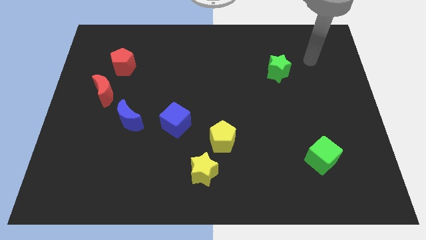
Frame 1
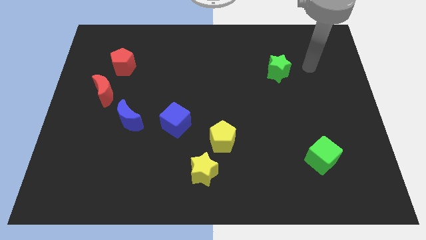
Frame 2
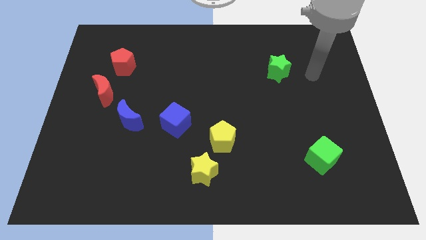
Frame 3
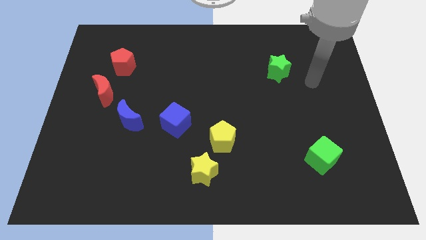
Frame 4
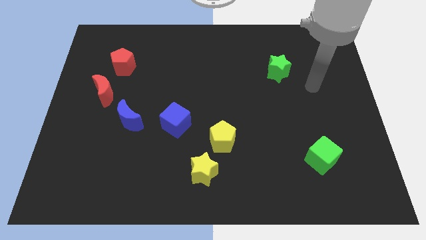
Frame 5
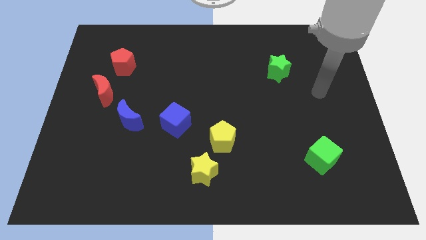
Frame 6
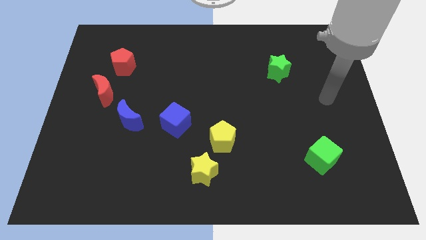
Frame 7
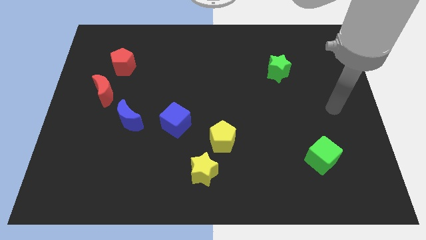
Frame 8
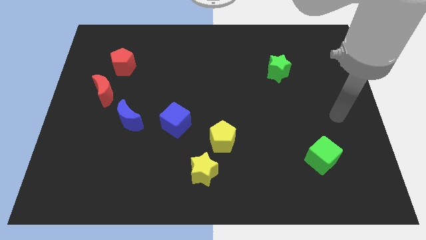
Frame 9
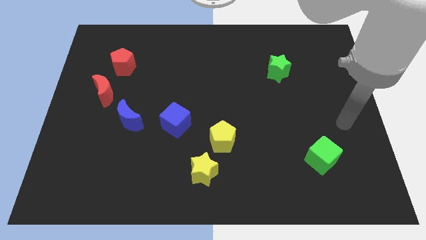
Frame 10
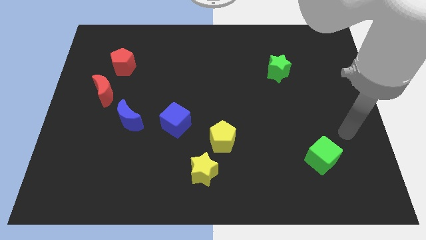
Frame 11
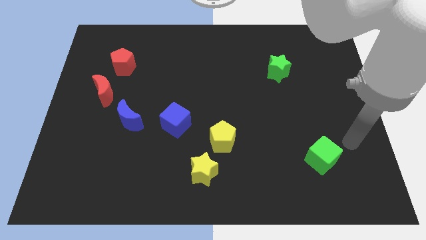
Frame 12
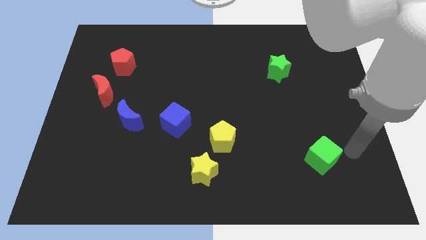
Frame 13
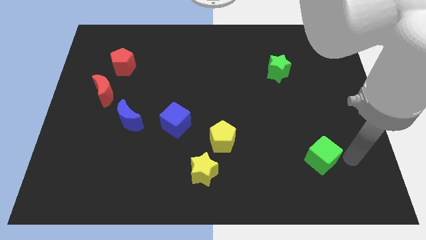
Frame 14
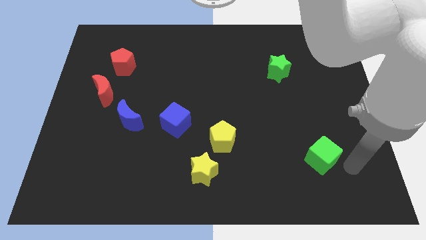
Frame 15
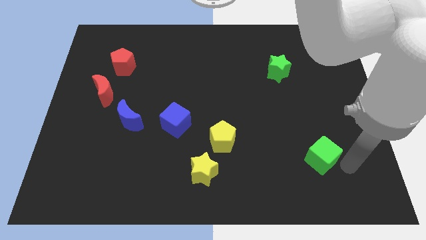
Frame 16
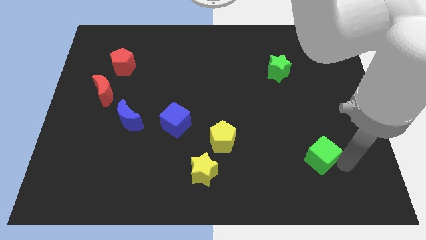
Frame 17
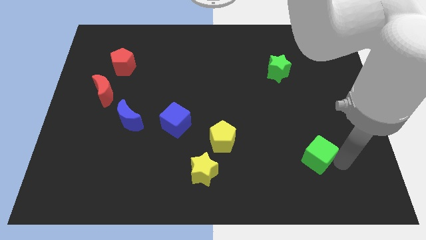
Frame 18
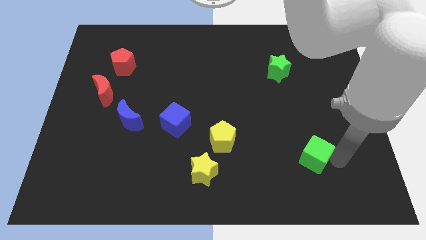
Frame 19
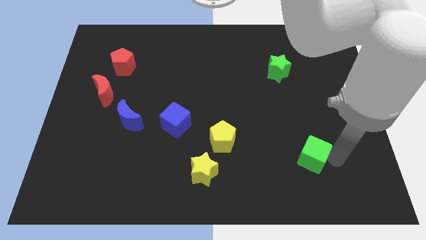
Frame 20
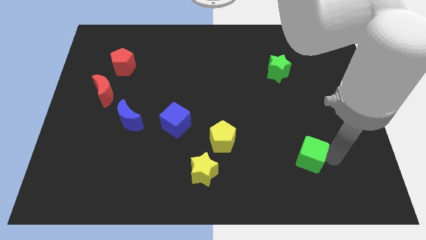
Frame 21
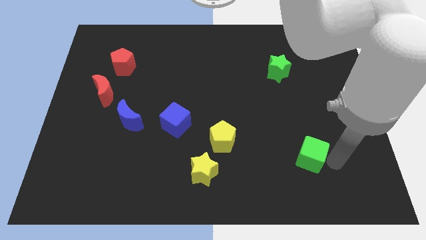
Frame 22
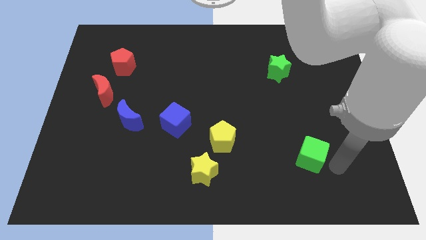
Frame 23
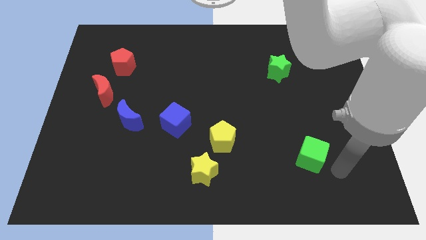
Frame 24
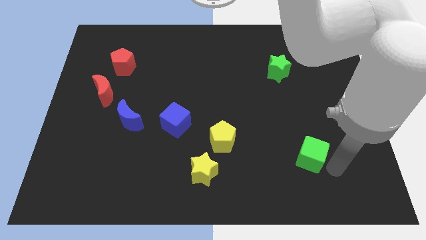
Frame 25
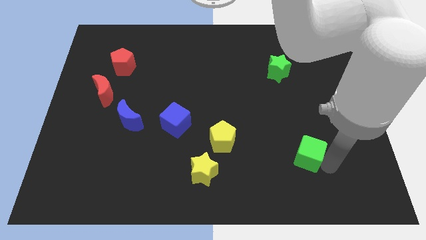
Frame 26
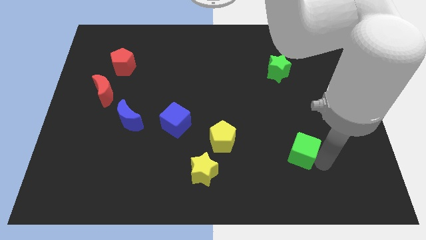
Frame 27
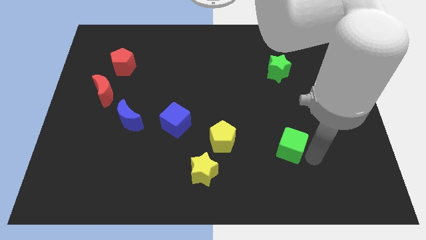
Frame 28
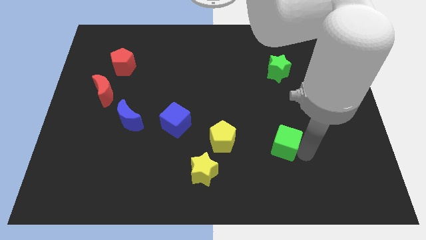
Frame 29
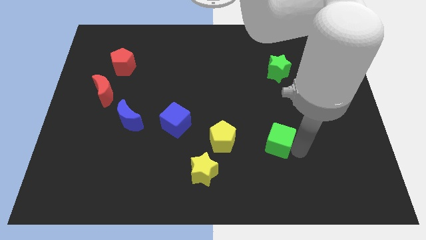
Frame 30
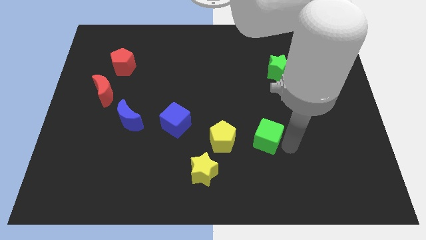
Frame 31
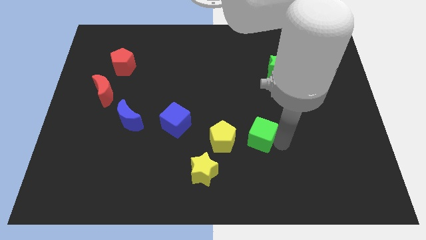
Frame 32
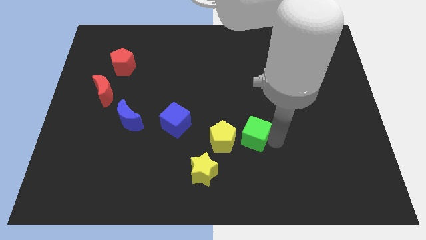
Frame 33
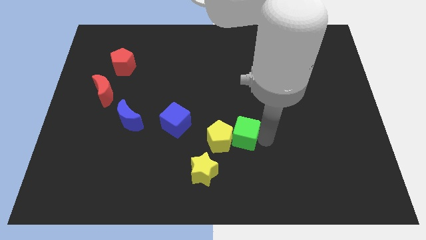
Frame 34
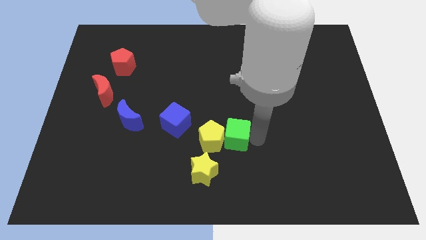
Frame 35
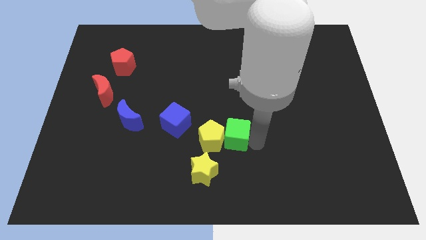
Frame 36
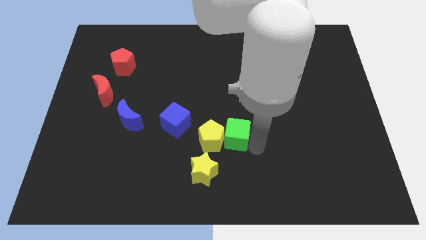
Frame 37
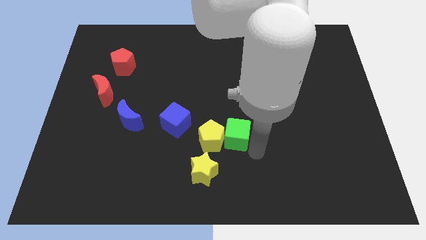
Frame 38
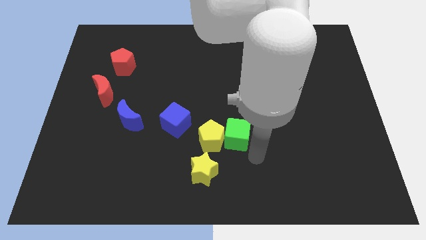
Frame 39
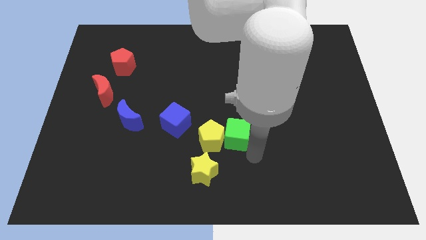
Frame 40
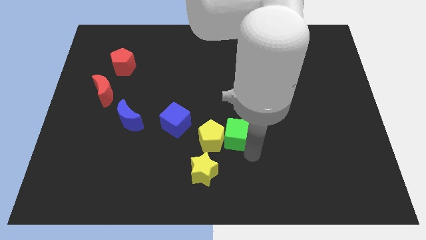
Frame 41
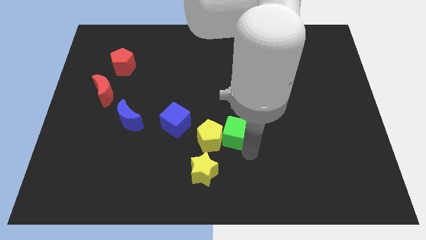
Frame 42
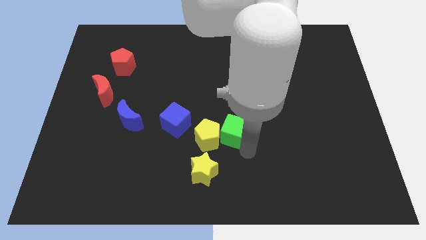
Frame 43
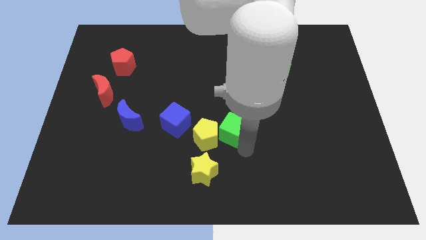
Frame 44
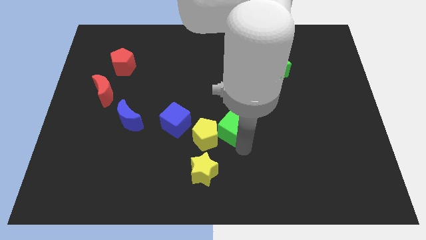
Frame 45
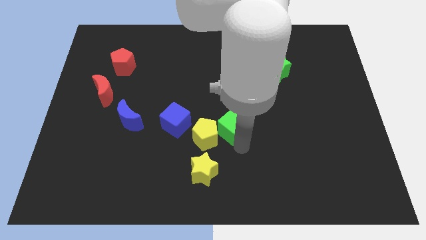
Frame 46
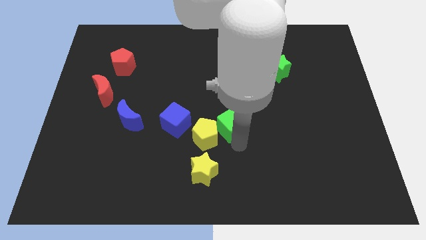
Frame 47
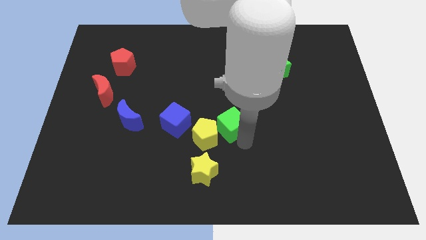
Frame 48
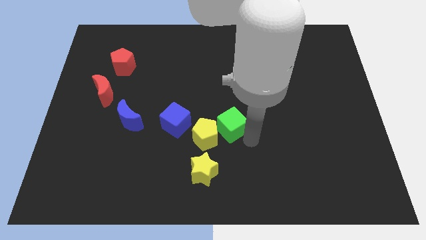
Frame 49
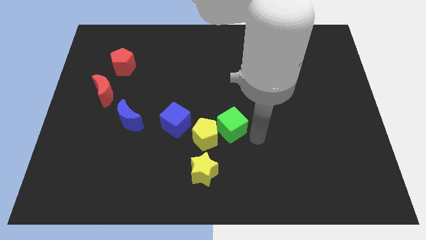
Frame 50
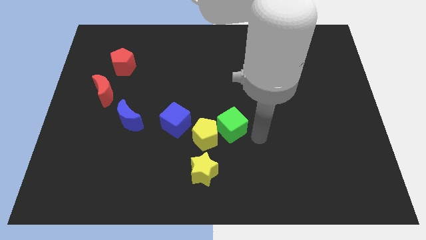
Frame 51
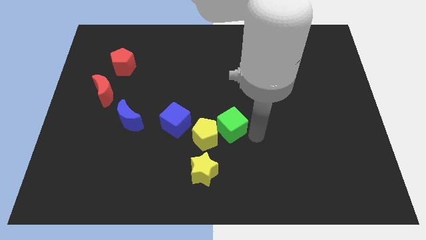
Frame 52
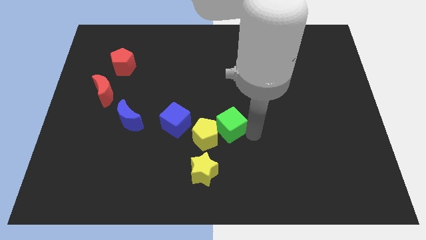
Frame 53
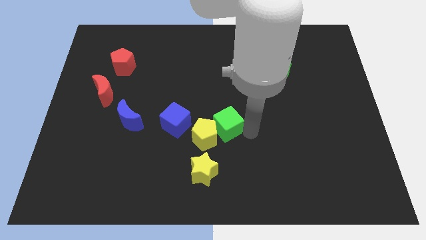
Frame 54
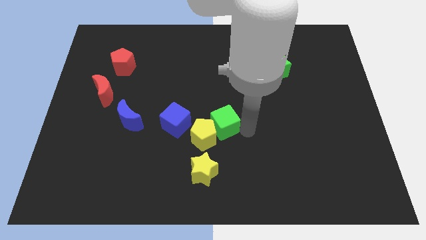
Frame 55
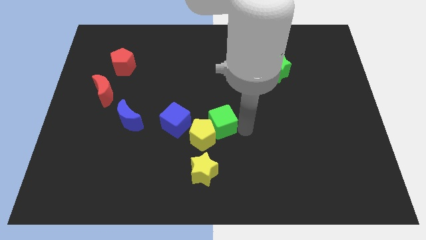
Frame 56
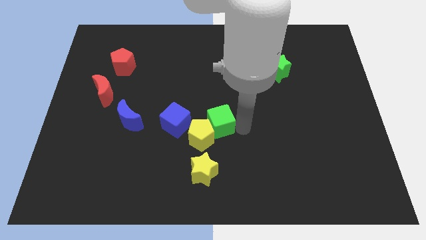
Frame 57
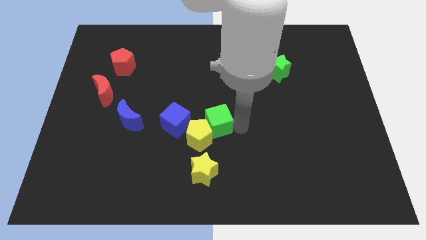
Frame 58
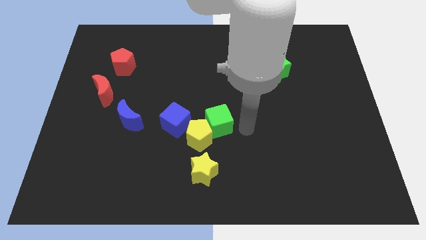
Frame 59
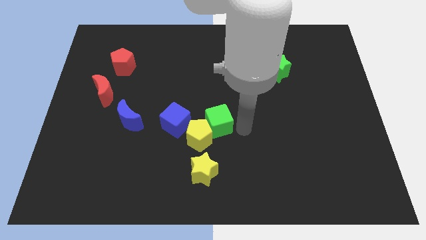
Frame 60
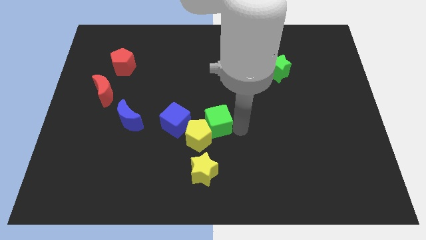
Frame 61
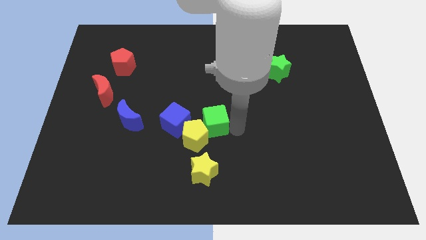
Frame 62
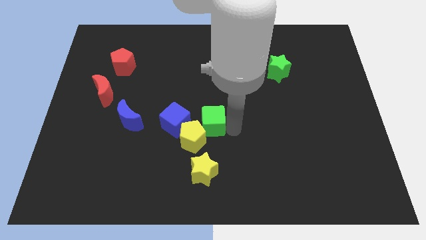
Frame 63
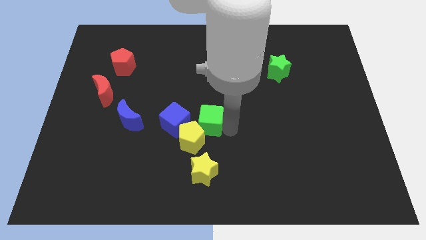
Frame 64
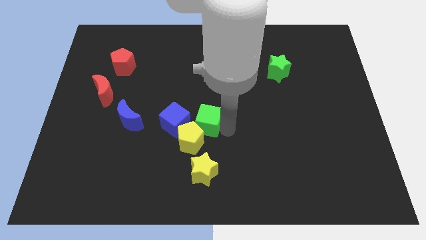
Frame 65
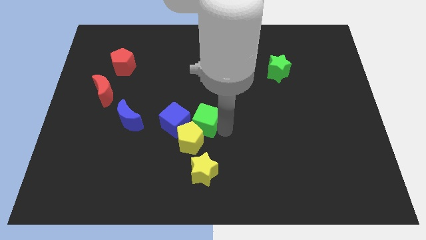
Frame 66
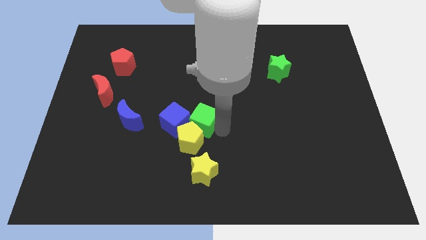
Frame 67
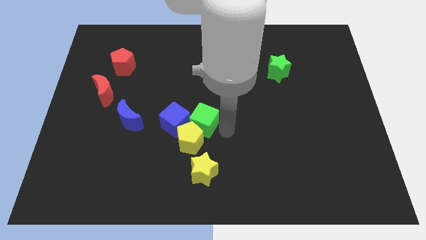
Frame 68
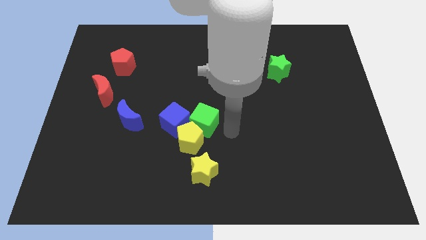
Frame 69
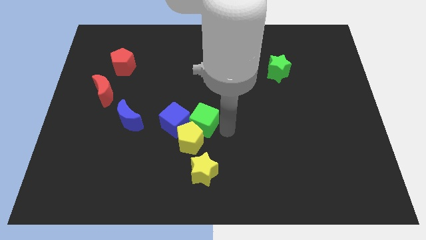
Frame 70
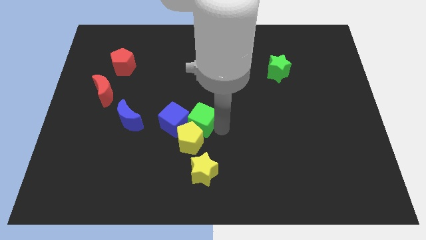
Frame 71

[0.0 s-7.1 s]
slide the green cube to the blue cube
